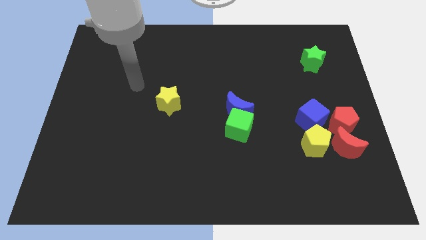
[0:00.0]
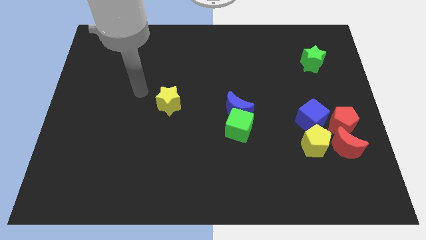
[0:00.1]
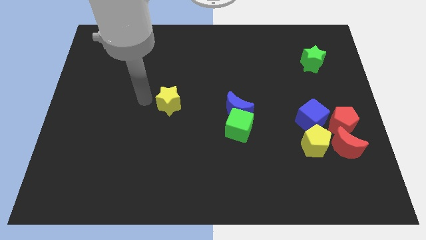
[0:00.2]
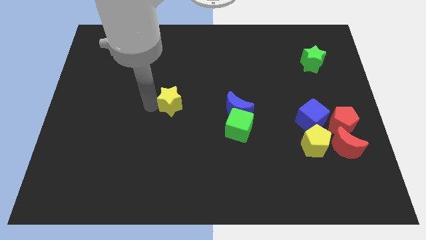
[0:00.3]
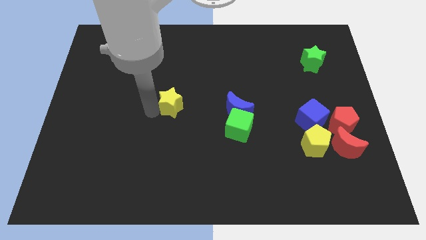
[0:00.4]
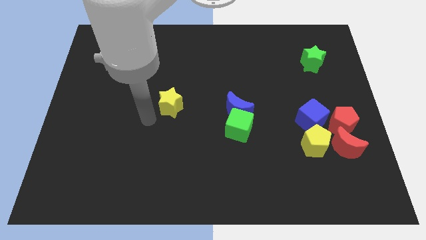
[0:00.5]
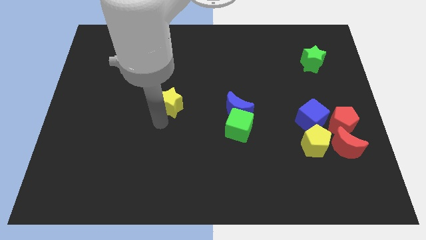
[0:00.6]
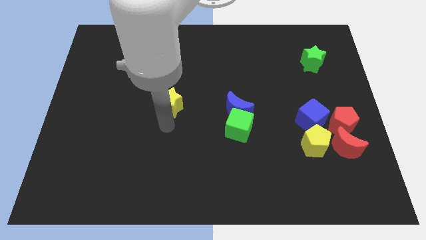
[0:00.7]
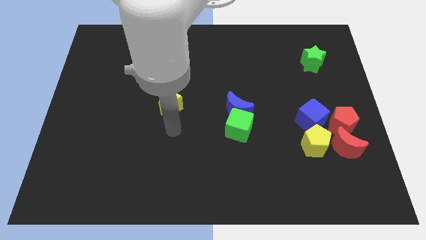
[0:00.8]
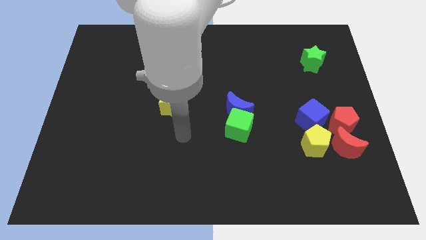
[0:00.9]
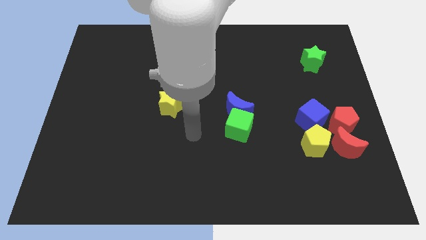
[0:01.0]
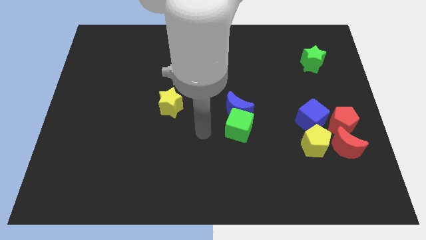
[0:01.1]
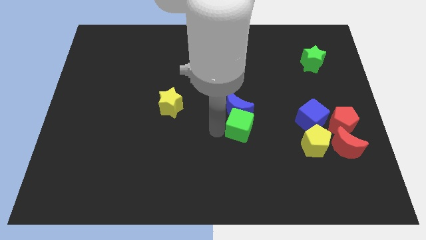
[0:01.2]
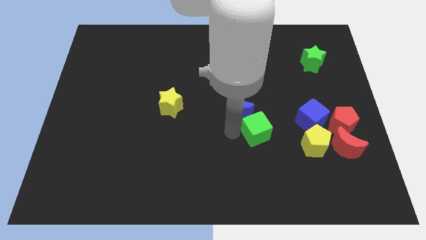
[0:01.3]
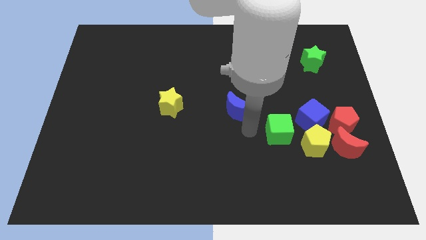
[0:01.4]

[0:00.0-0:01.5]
separate the blue moon from the green cube

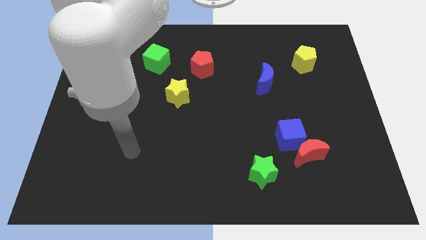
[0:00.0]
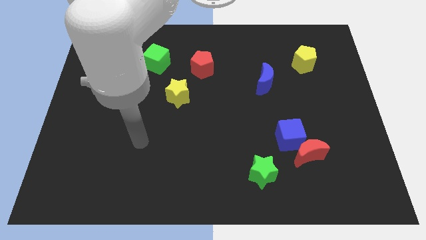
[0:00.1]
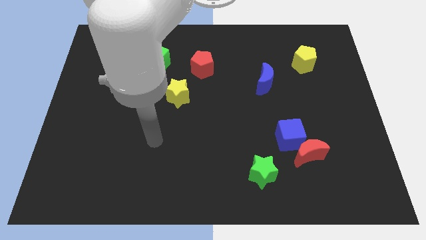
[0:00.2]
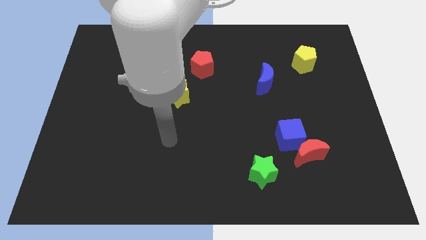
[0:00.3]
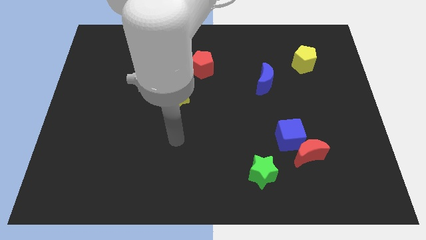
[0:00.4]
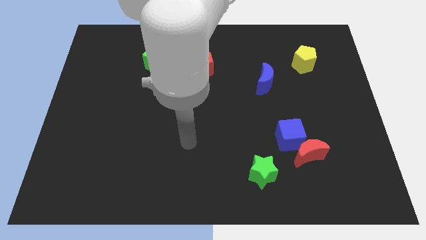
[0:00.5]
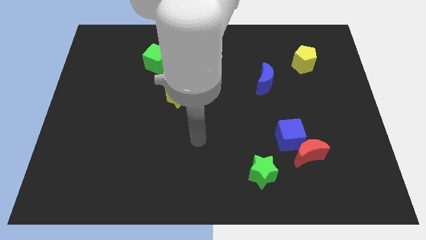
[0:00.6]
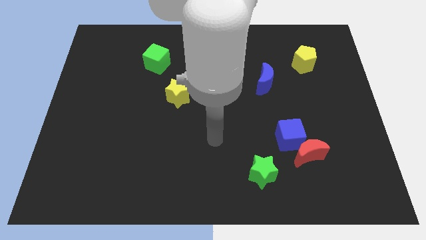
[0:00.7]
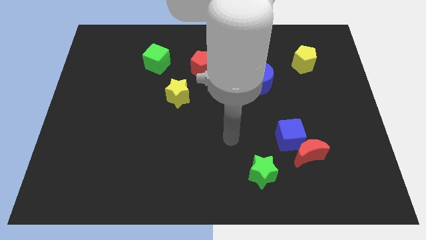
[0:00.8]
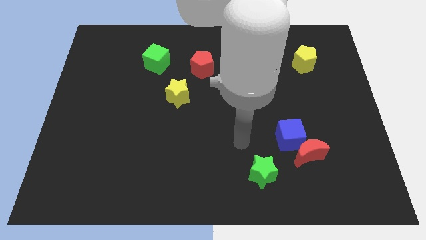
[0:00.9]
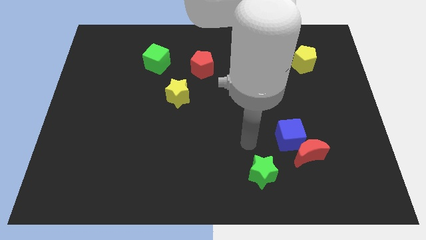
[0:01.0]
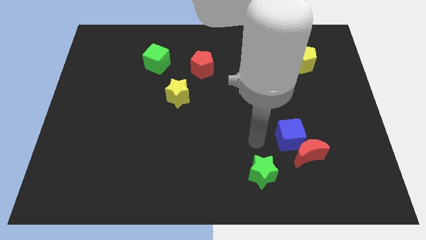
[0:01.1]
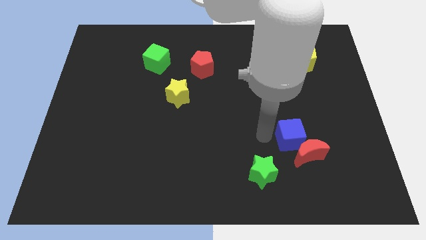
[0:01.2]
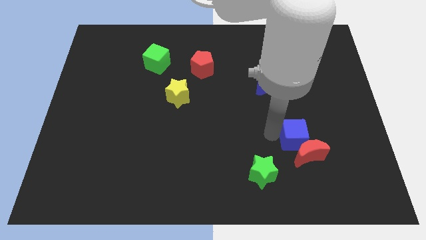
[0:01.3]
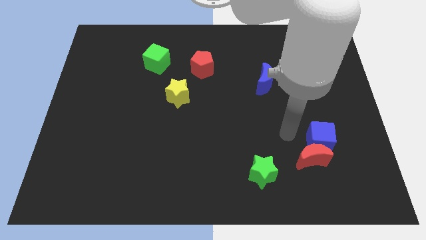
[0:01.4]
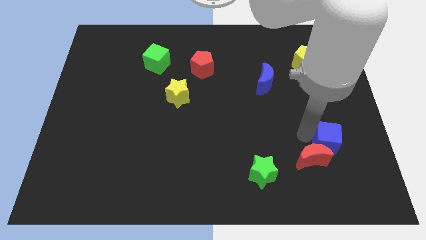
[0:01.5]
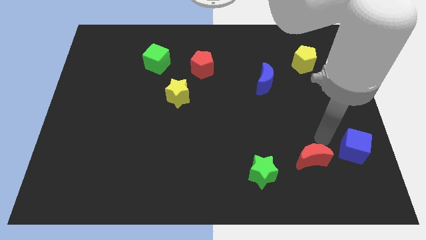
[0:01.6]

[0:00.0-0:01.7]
separate the red moon from the blue cube

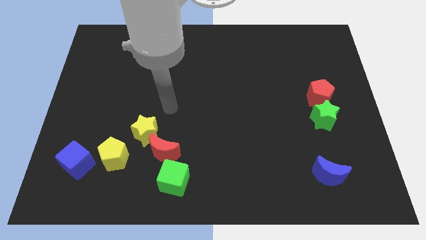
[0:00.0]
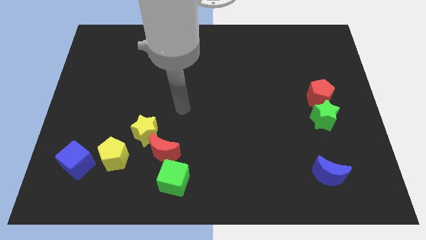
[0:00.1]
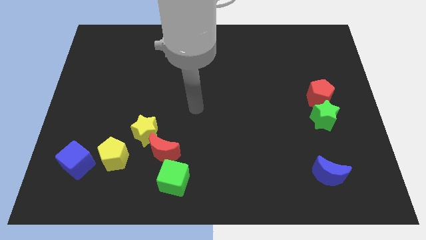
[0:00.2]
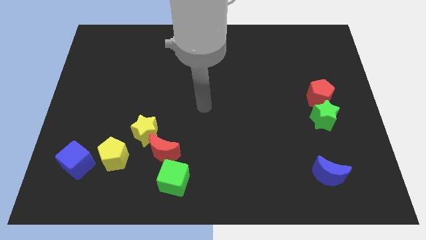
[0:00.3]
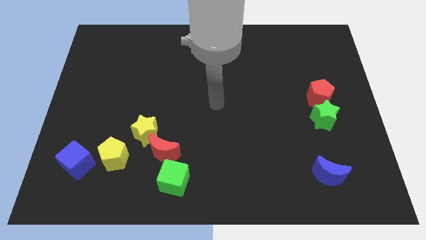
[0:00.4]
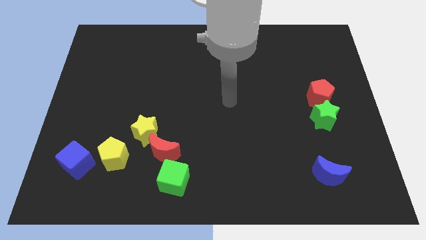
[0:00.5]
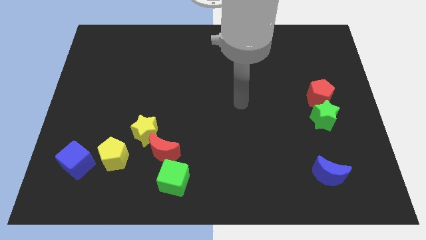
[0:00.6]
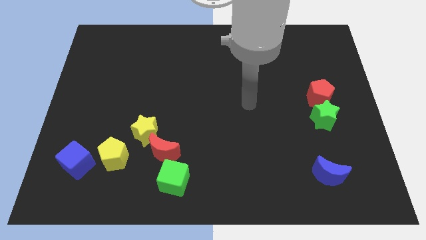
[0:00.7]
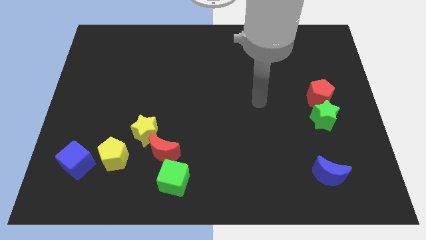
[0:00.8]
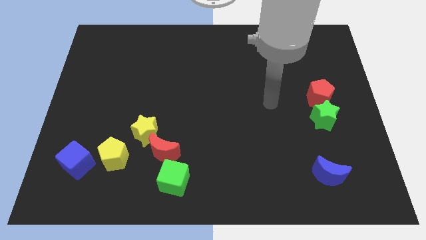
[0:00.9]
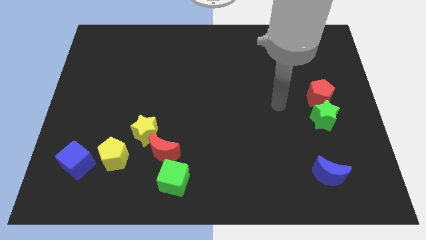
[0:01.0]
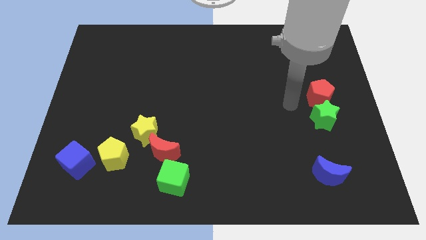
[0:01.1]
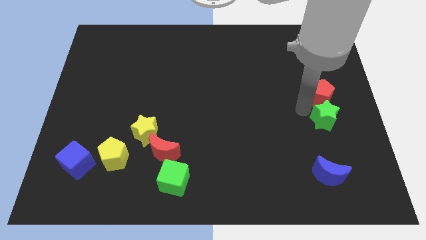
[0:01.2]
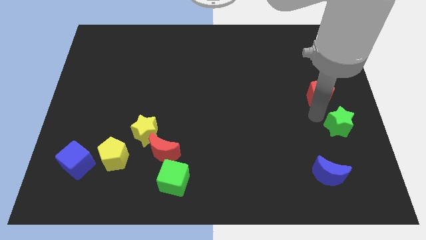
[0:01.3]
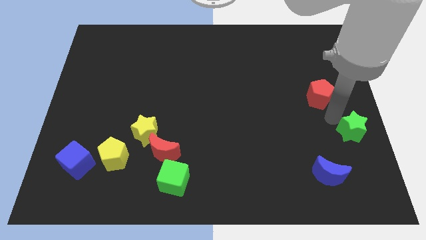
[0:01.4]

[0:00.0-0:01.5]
pull the red pentagon apart from the green star

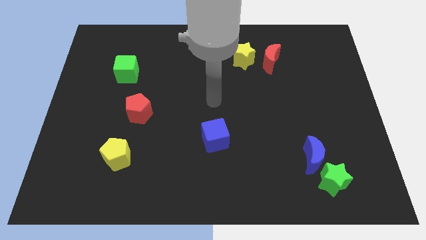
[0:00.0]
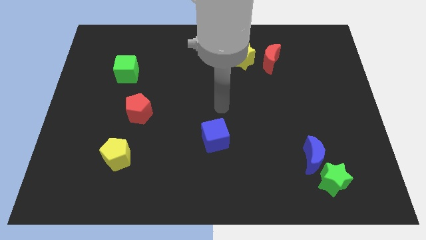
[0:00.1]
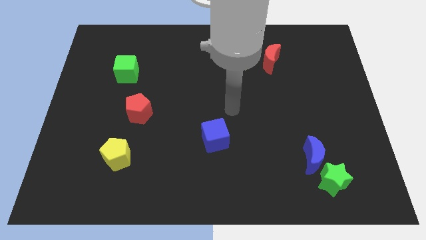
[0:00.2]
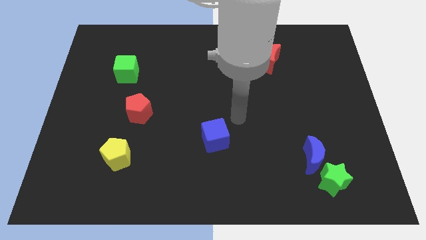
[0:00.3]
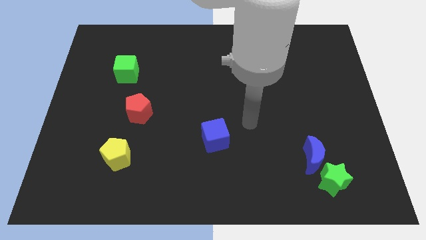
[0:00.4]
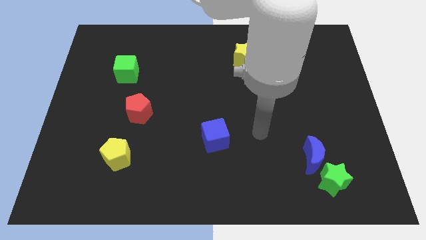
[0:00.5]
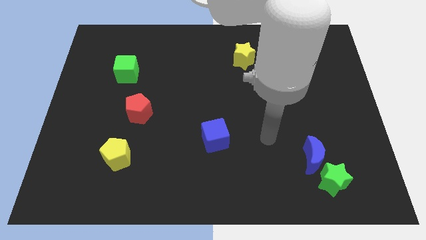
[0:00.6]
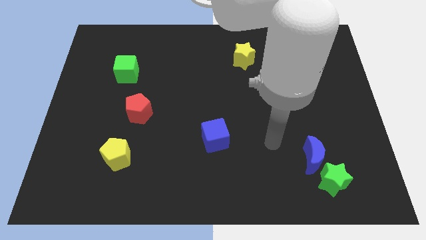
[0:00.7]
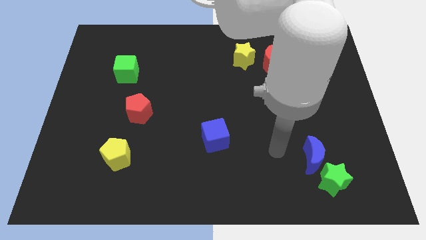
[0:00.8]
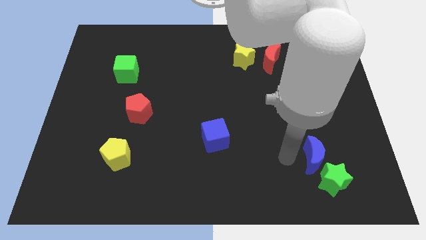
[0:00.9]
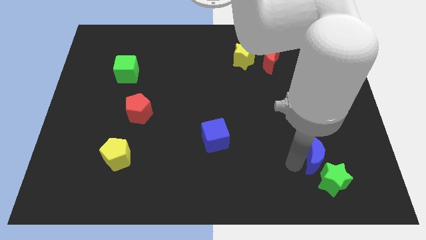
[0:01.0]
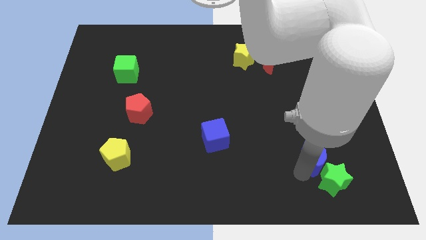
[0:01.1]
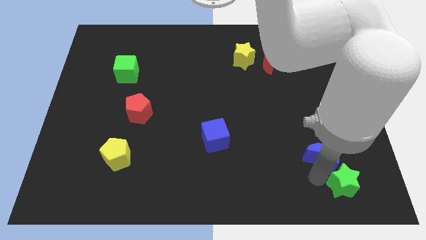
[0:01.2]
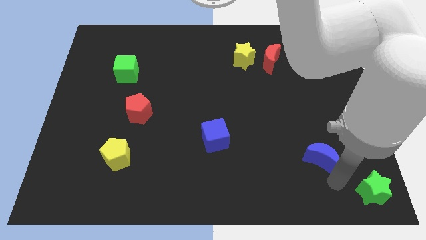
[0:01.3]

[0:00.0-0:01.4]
pull the blue moon apart from the green star

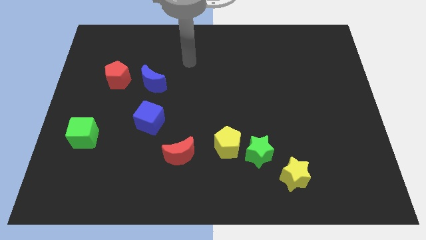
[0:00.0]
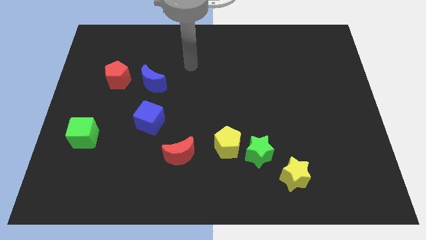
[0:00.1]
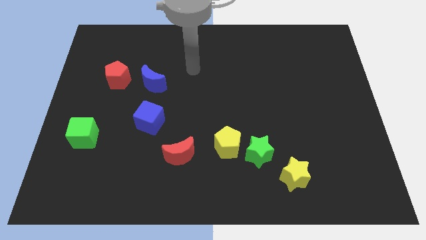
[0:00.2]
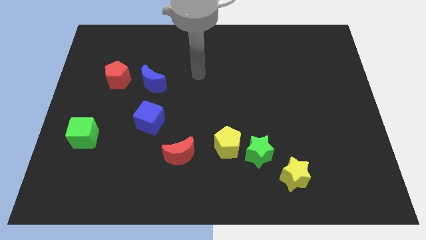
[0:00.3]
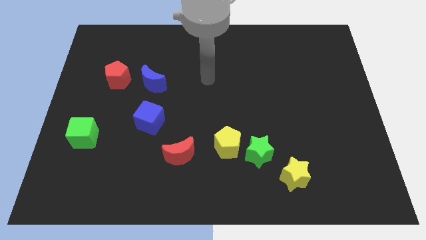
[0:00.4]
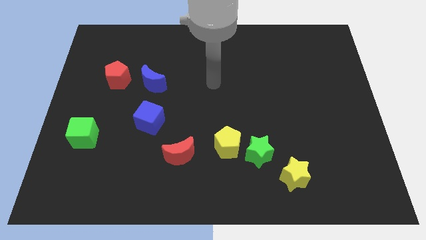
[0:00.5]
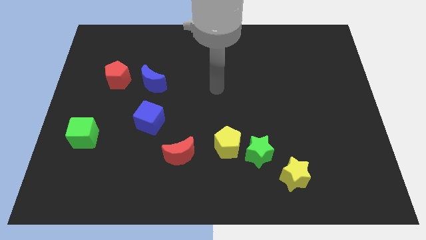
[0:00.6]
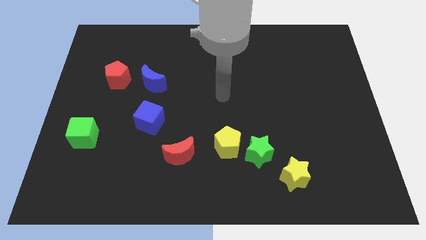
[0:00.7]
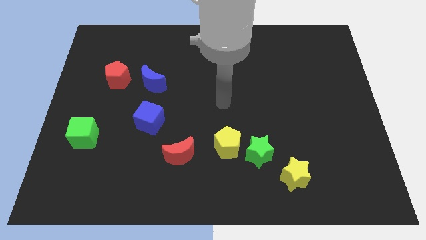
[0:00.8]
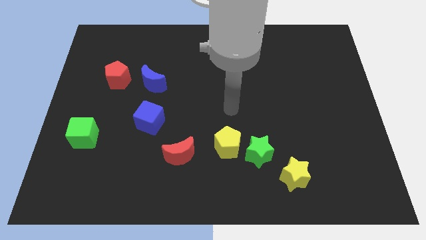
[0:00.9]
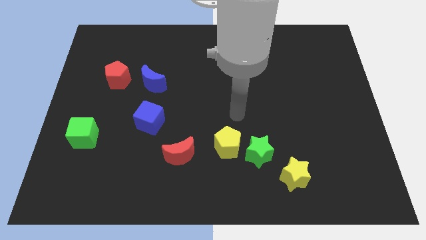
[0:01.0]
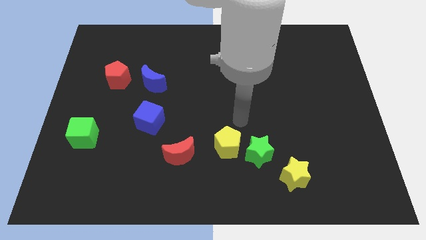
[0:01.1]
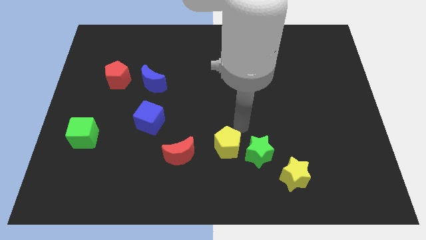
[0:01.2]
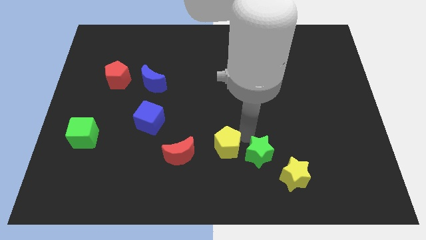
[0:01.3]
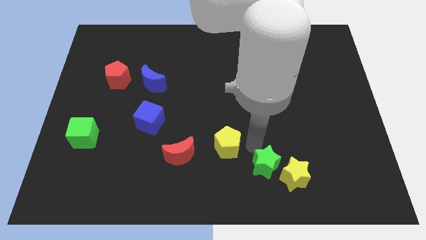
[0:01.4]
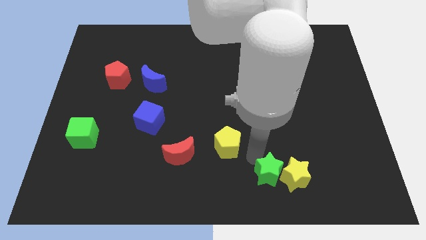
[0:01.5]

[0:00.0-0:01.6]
separate the yellow pentagon from the green star

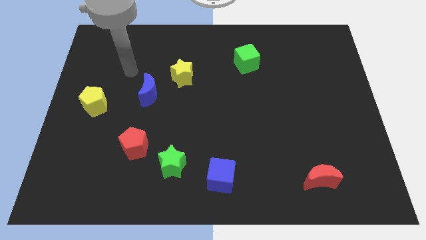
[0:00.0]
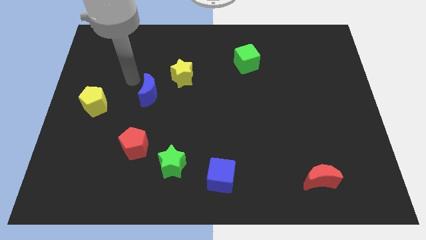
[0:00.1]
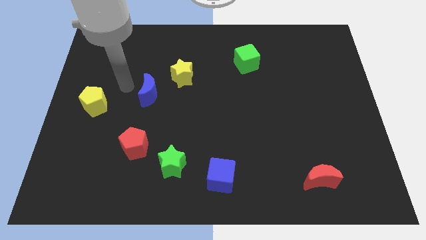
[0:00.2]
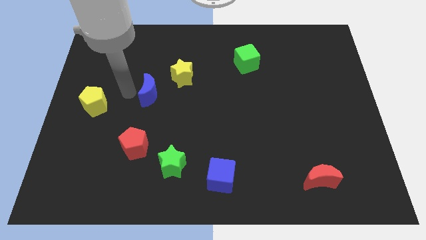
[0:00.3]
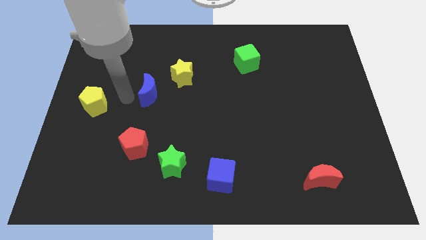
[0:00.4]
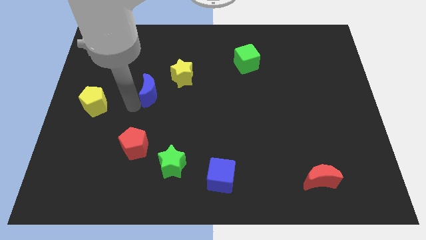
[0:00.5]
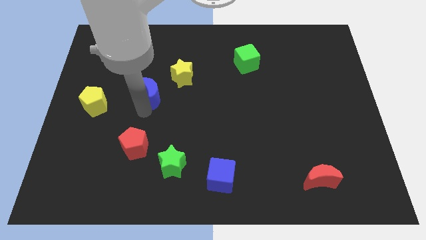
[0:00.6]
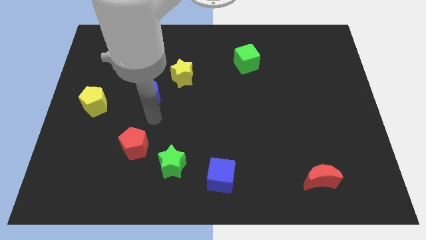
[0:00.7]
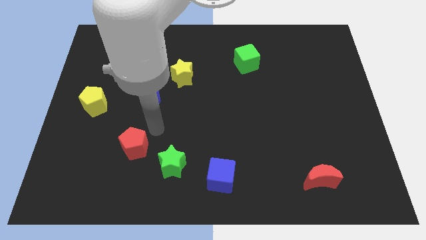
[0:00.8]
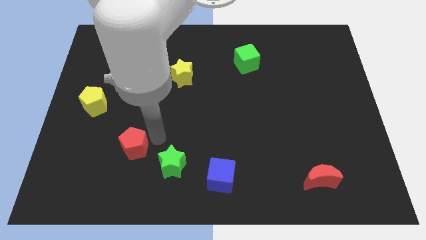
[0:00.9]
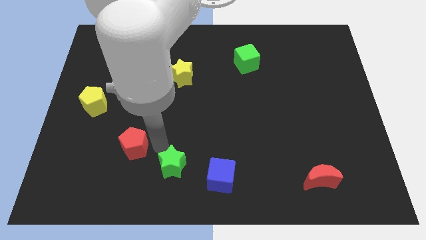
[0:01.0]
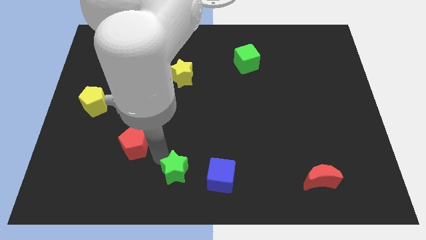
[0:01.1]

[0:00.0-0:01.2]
move the red pentagon away from the green star

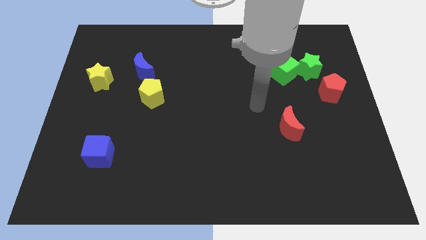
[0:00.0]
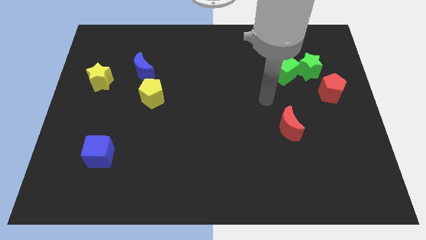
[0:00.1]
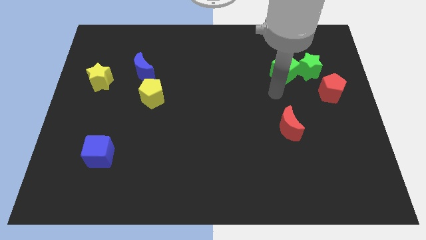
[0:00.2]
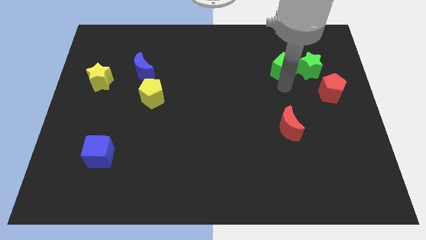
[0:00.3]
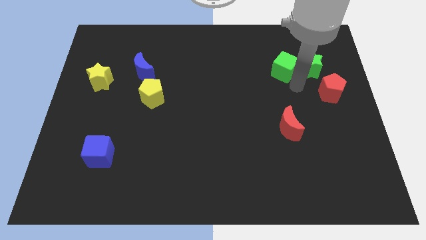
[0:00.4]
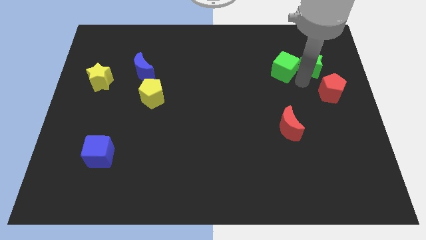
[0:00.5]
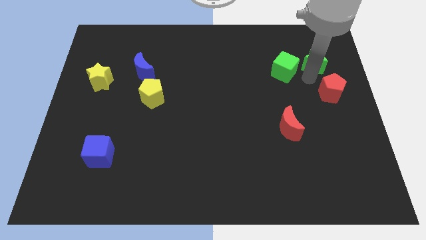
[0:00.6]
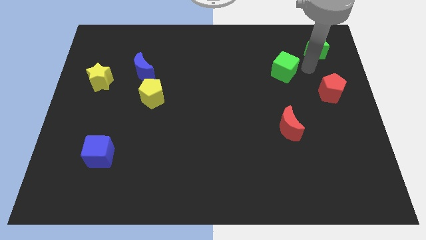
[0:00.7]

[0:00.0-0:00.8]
separate the green cube from the green star
